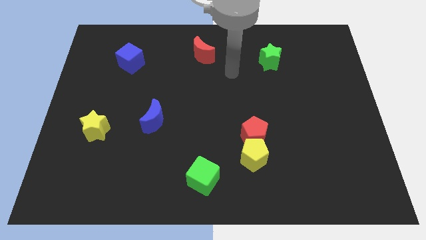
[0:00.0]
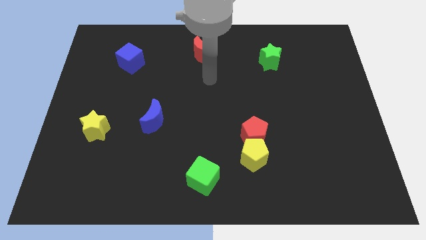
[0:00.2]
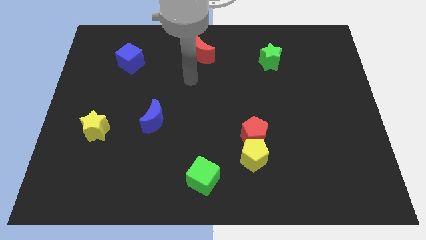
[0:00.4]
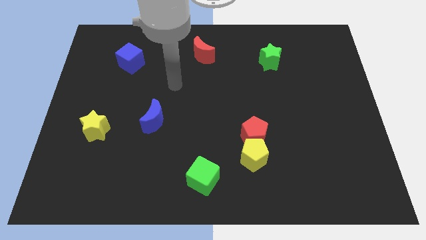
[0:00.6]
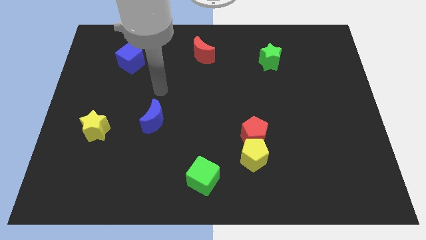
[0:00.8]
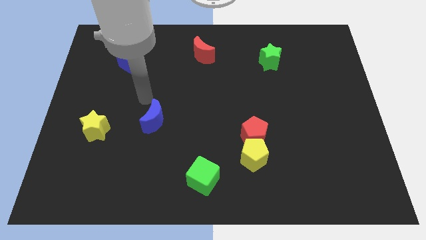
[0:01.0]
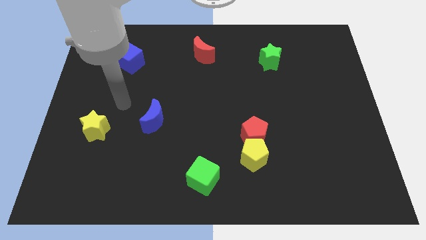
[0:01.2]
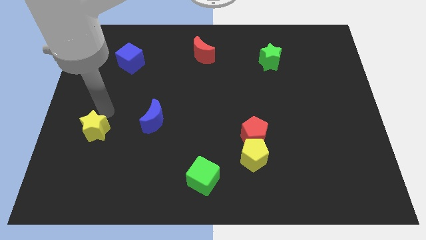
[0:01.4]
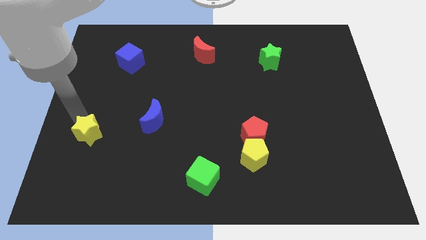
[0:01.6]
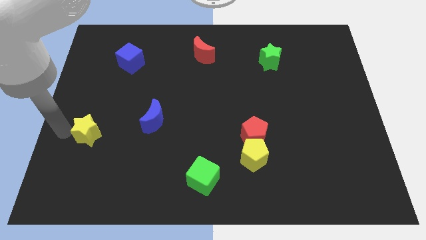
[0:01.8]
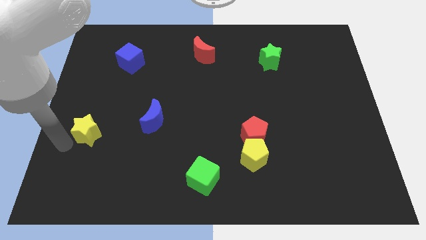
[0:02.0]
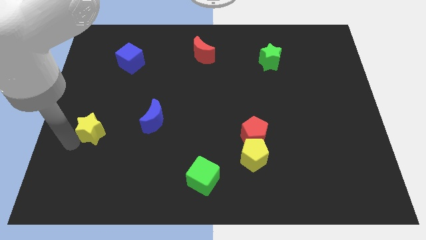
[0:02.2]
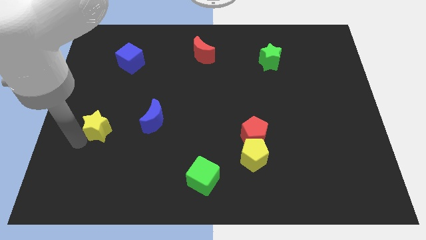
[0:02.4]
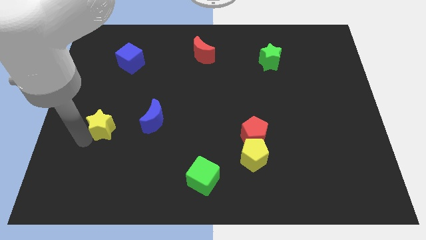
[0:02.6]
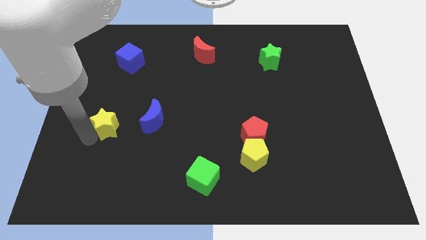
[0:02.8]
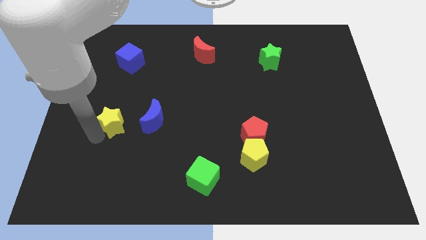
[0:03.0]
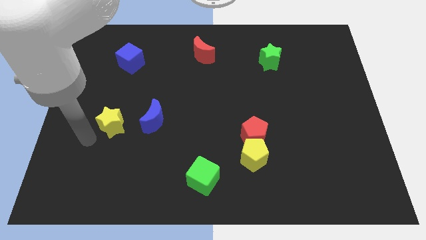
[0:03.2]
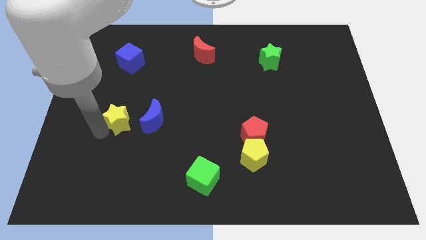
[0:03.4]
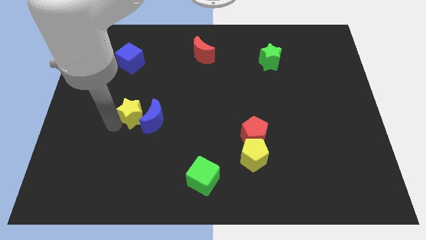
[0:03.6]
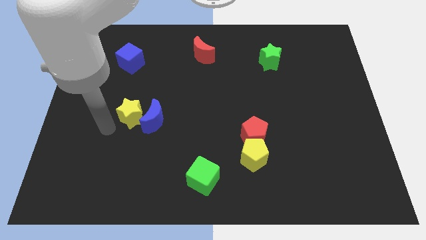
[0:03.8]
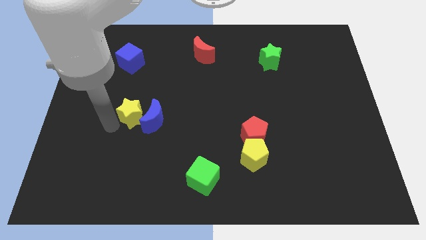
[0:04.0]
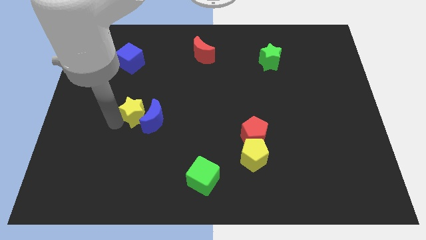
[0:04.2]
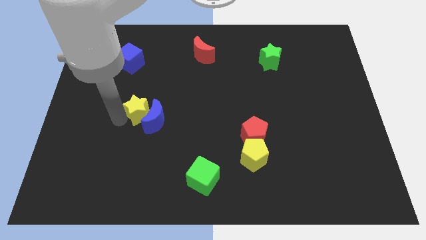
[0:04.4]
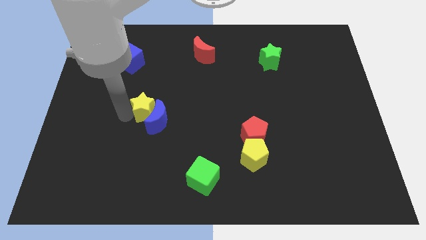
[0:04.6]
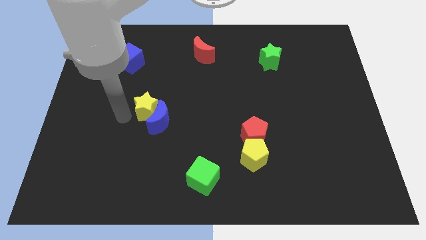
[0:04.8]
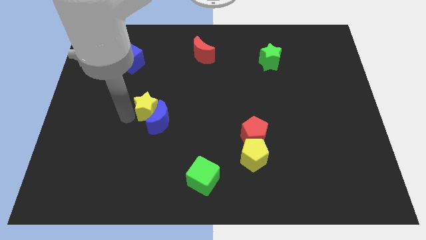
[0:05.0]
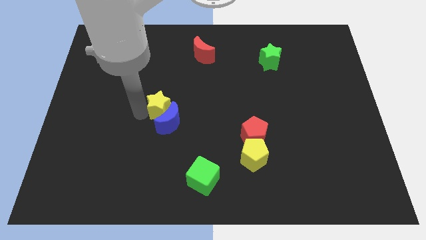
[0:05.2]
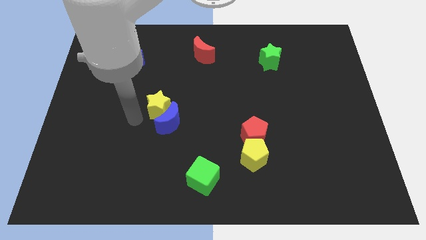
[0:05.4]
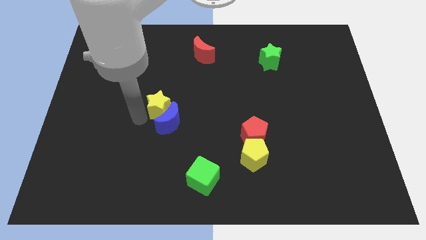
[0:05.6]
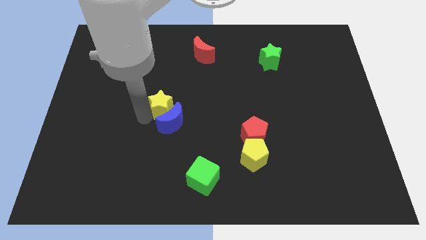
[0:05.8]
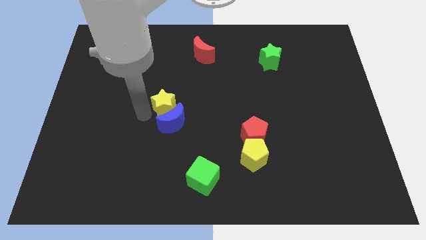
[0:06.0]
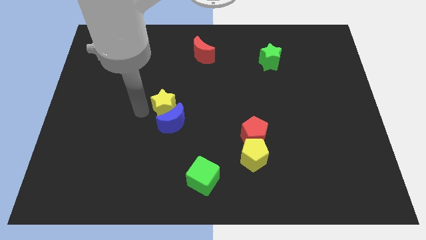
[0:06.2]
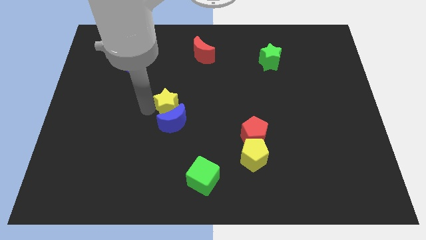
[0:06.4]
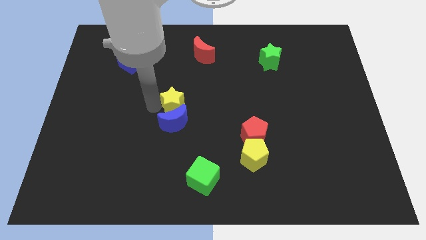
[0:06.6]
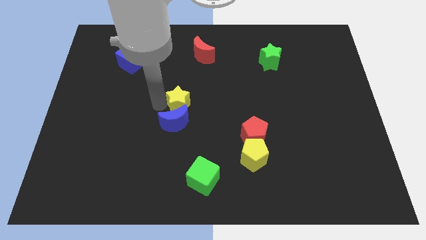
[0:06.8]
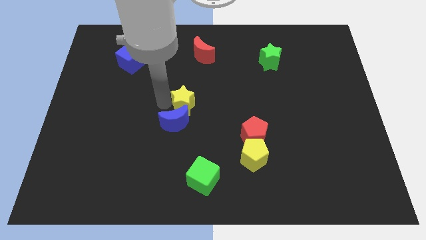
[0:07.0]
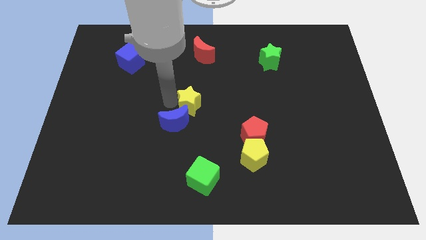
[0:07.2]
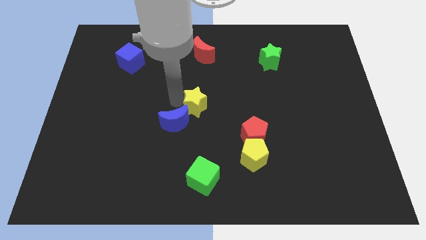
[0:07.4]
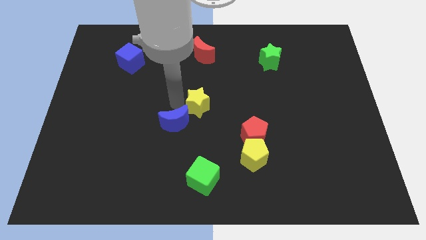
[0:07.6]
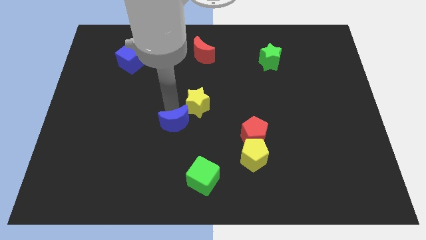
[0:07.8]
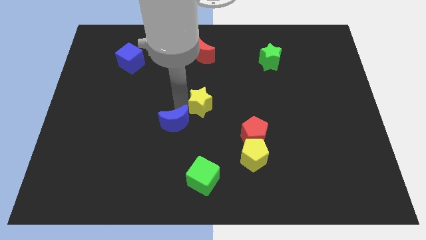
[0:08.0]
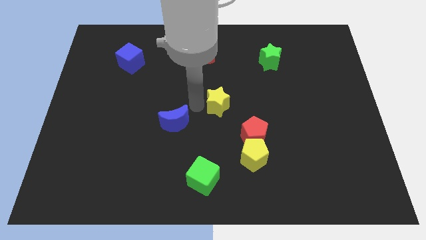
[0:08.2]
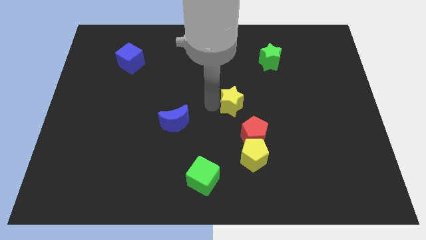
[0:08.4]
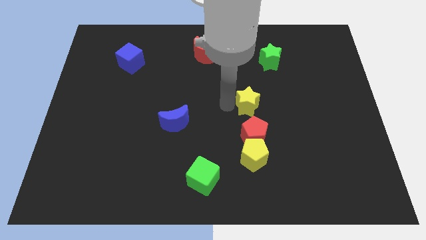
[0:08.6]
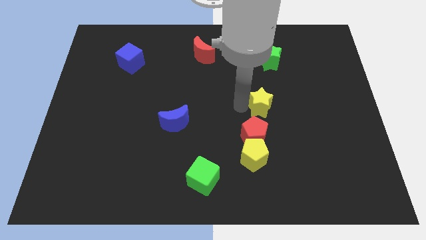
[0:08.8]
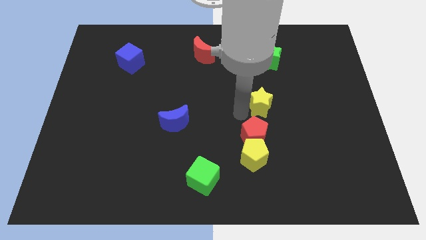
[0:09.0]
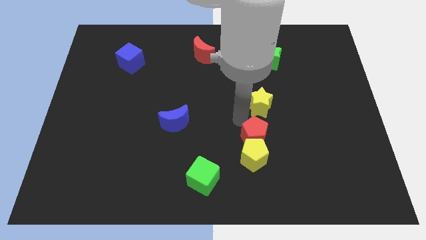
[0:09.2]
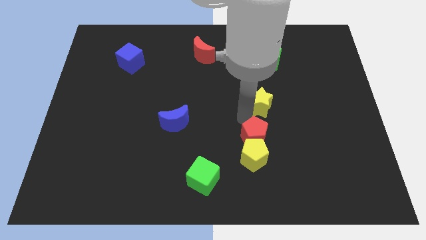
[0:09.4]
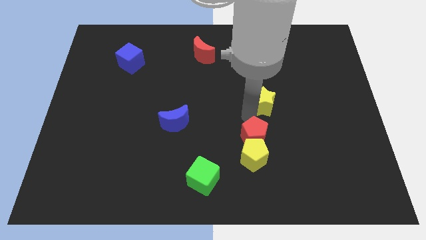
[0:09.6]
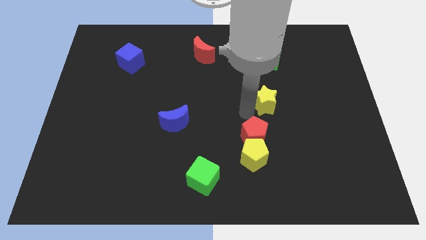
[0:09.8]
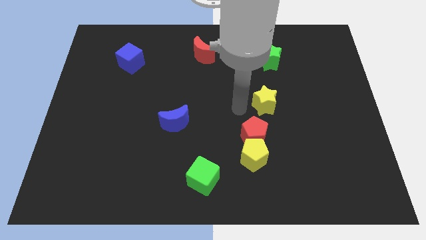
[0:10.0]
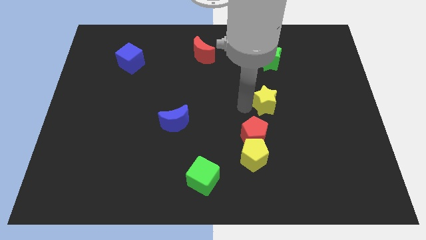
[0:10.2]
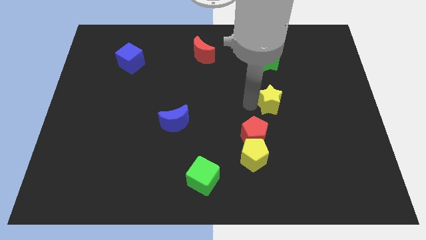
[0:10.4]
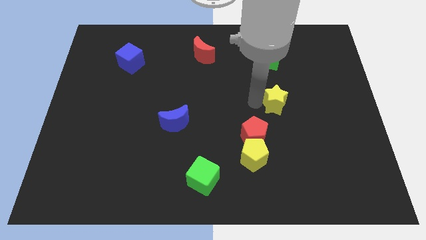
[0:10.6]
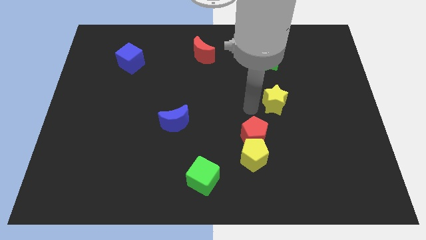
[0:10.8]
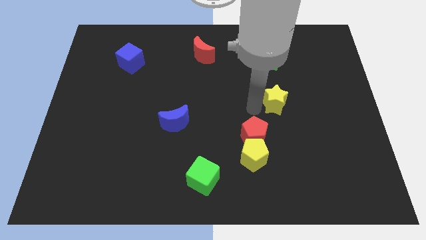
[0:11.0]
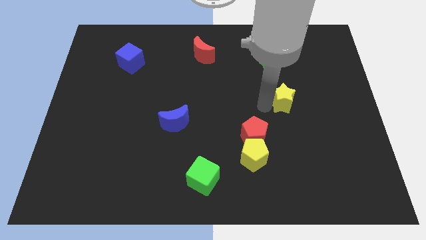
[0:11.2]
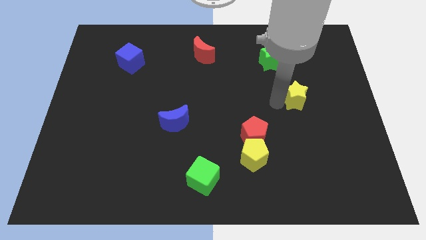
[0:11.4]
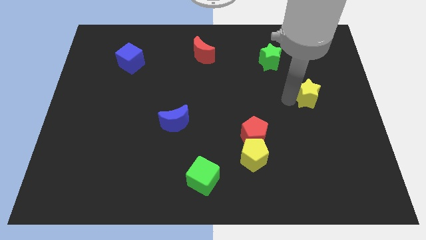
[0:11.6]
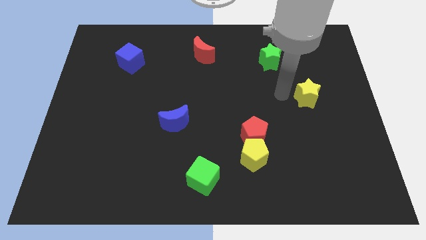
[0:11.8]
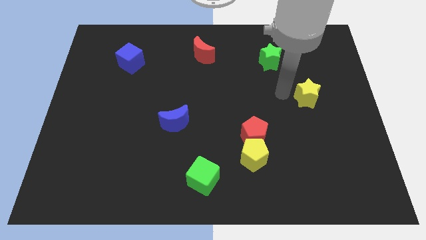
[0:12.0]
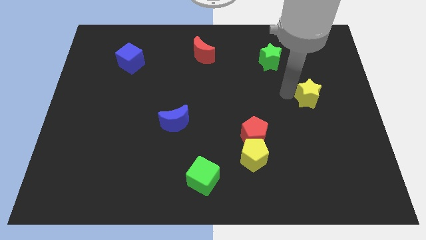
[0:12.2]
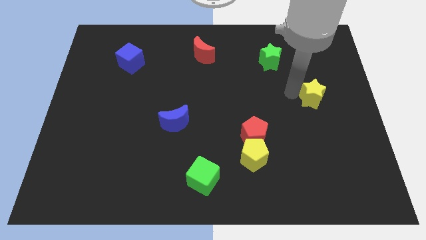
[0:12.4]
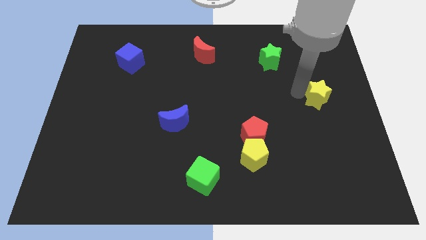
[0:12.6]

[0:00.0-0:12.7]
move the yellow star to the right side

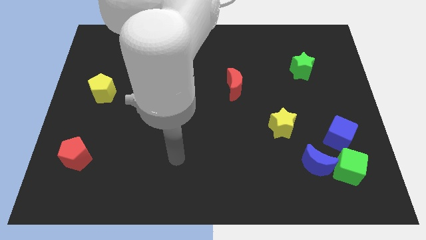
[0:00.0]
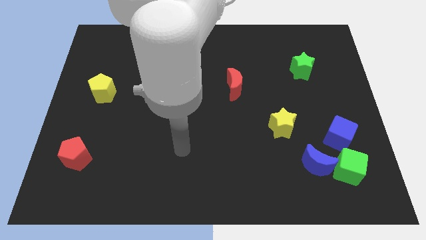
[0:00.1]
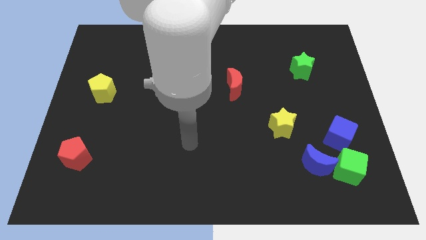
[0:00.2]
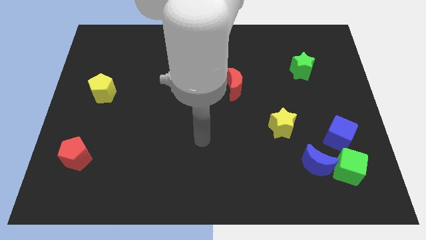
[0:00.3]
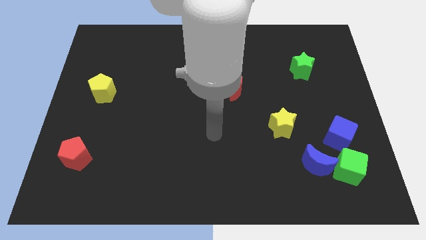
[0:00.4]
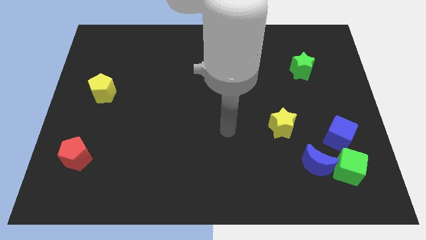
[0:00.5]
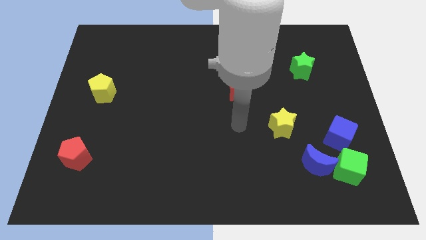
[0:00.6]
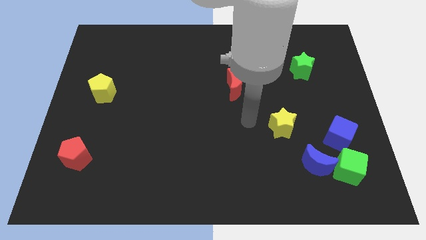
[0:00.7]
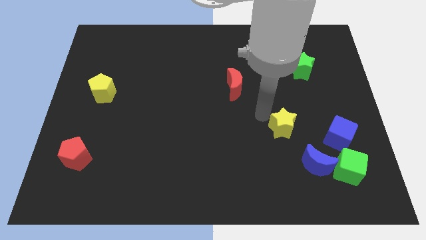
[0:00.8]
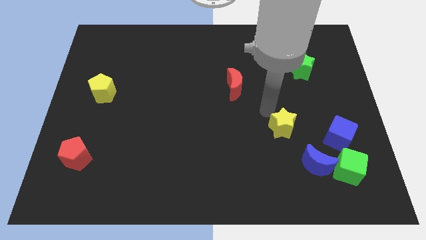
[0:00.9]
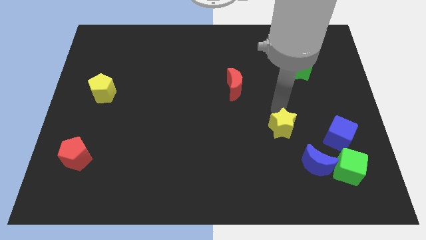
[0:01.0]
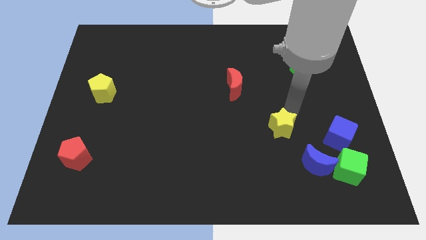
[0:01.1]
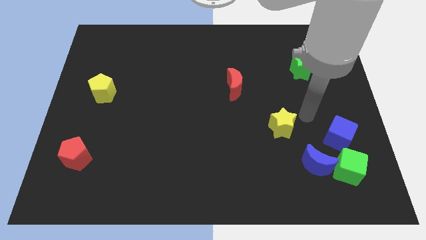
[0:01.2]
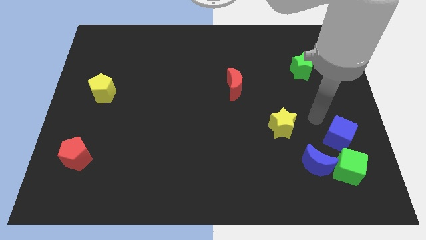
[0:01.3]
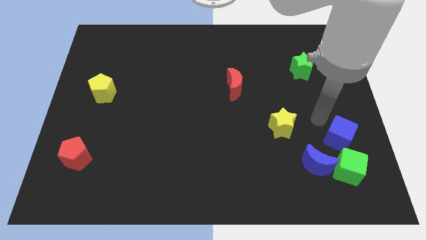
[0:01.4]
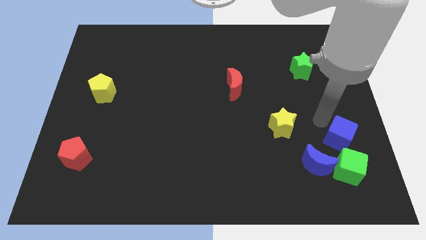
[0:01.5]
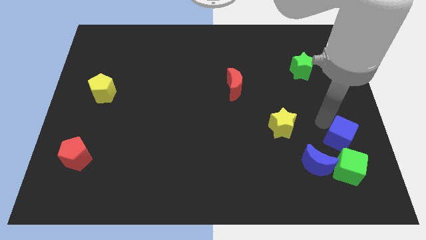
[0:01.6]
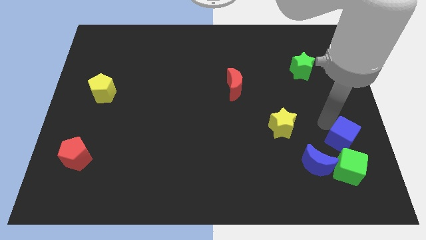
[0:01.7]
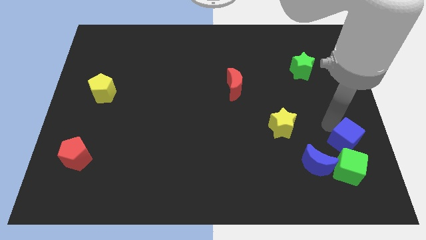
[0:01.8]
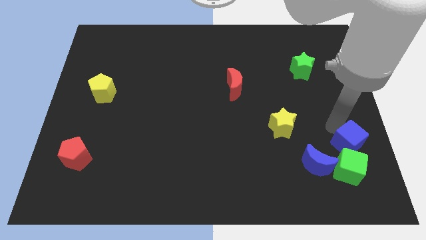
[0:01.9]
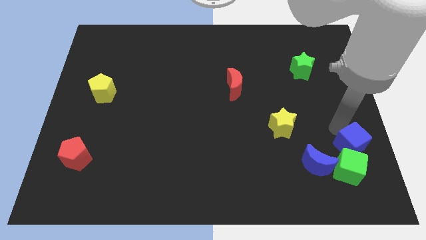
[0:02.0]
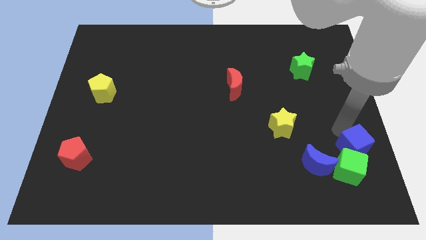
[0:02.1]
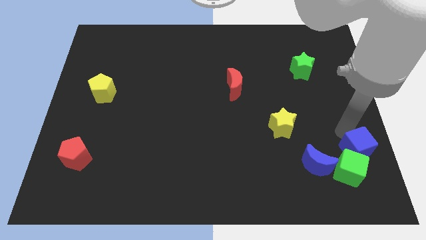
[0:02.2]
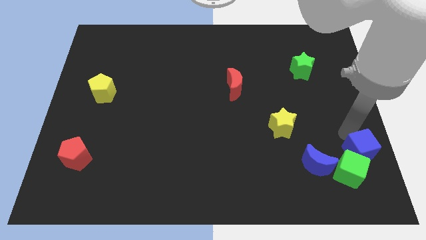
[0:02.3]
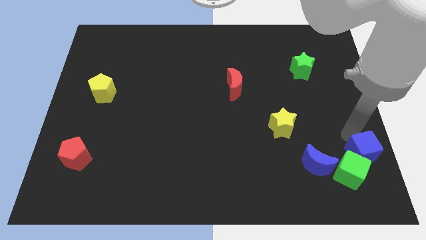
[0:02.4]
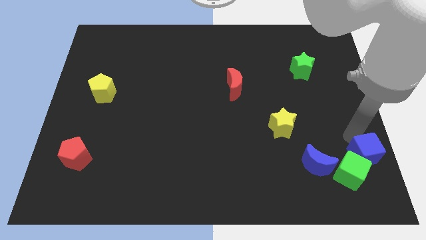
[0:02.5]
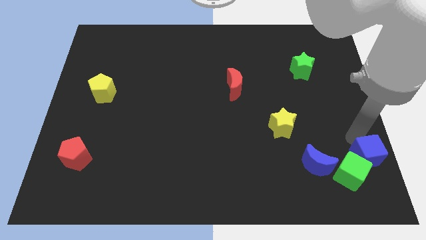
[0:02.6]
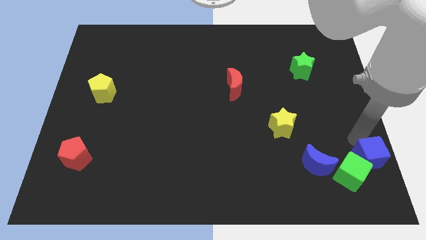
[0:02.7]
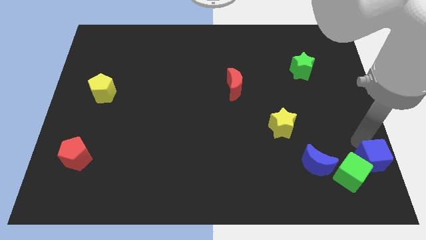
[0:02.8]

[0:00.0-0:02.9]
move the blue cube to the bottom right of the board
